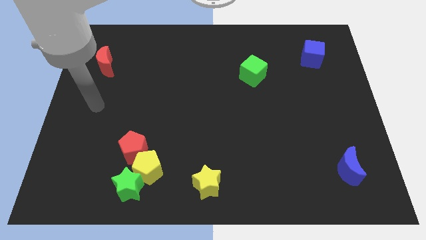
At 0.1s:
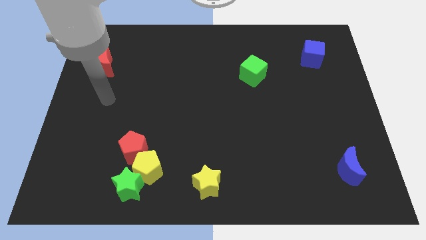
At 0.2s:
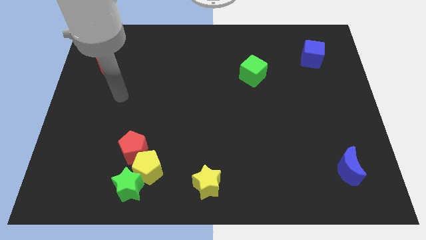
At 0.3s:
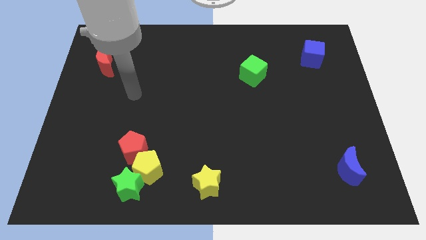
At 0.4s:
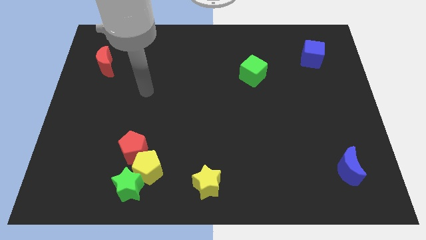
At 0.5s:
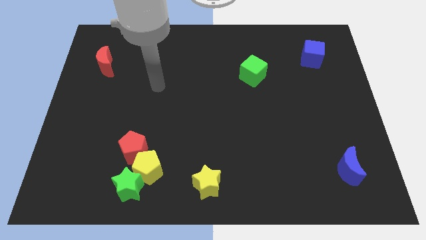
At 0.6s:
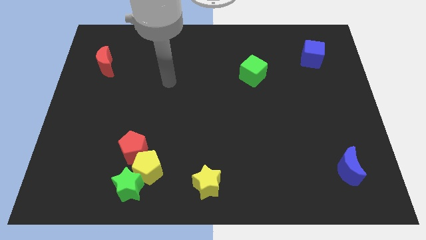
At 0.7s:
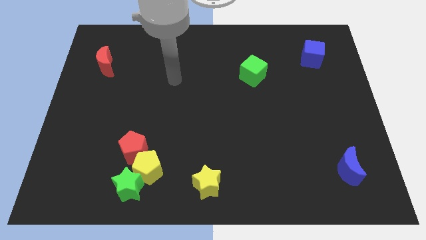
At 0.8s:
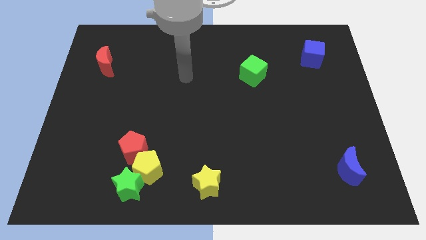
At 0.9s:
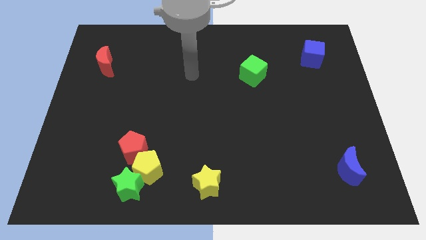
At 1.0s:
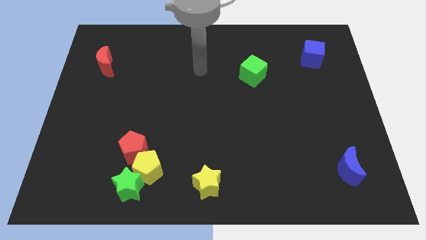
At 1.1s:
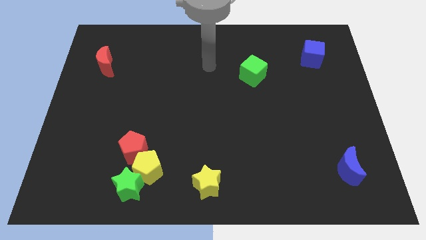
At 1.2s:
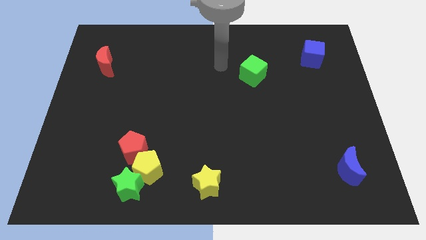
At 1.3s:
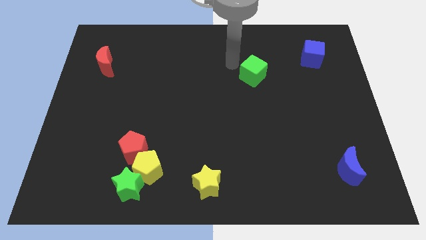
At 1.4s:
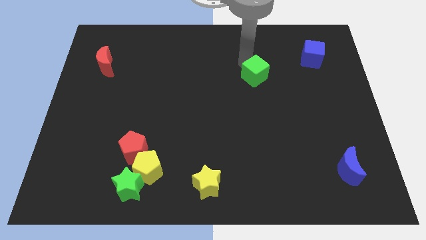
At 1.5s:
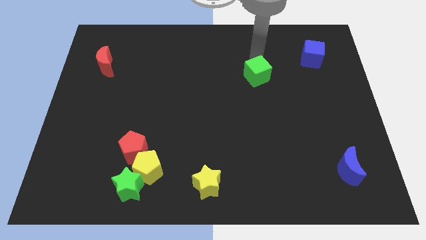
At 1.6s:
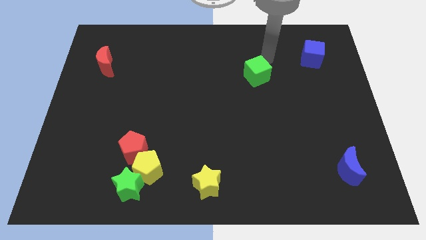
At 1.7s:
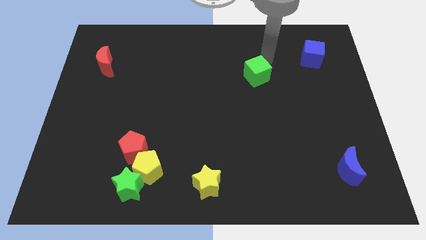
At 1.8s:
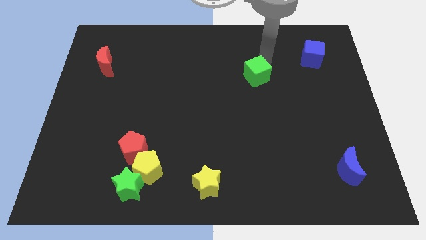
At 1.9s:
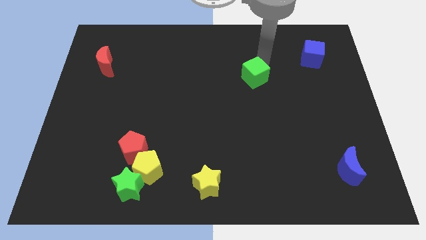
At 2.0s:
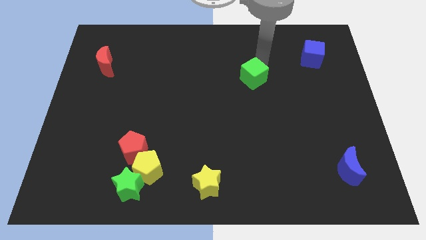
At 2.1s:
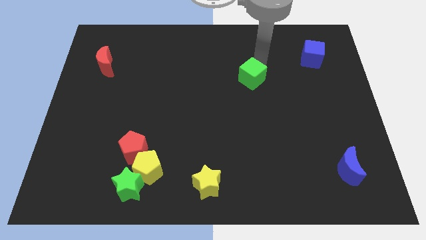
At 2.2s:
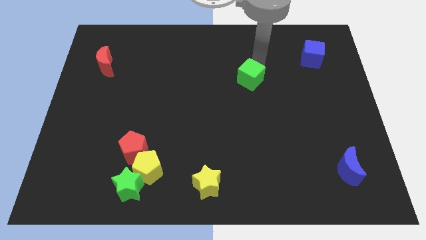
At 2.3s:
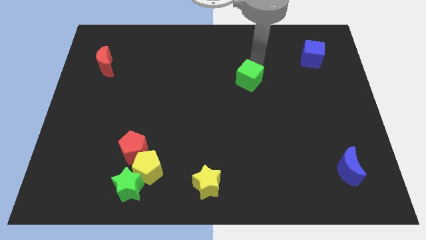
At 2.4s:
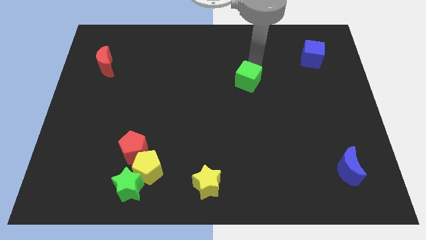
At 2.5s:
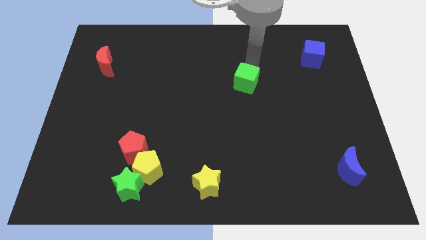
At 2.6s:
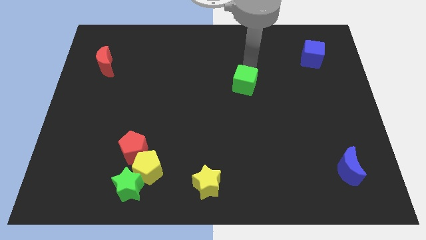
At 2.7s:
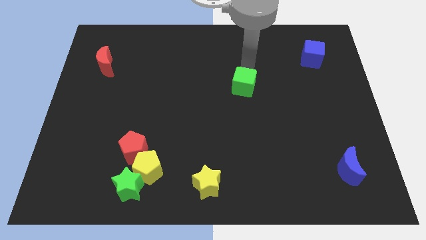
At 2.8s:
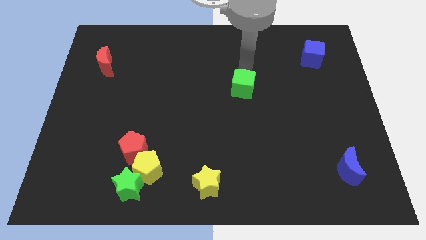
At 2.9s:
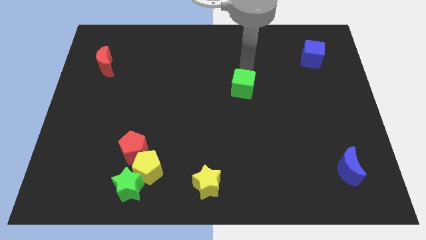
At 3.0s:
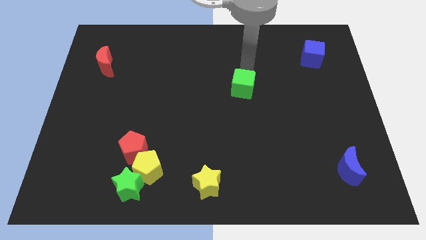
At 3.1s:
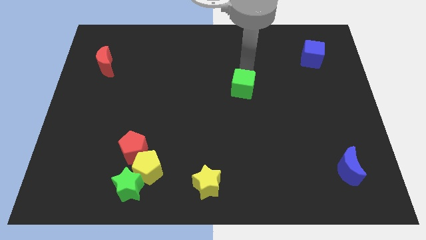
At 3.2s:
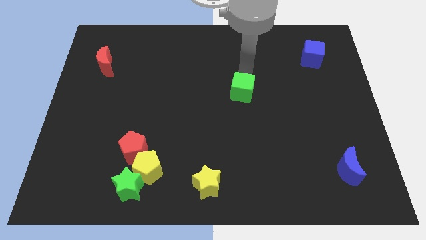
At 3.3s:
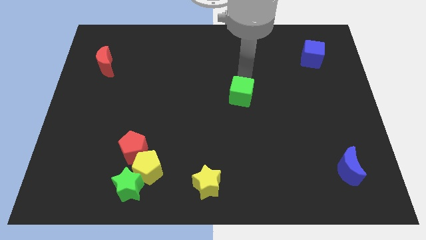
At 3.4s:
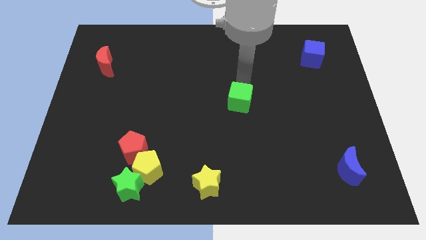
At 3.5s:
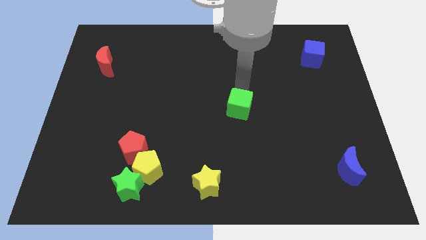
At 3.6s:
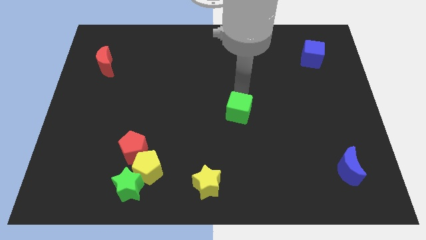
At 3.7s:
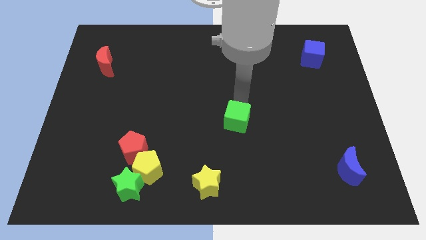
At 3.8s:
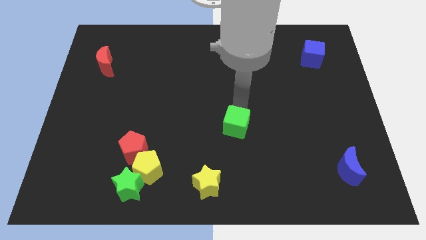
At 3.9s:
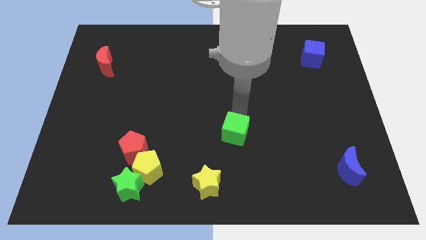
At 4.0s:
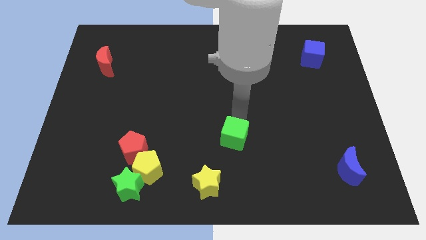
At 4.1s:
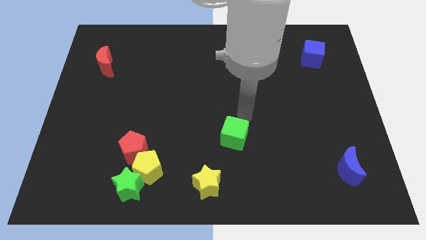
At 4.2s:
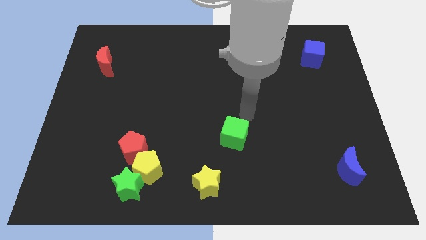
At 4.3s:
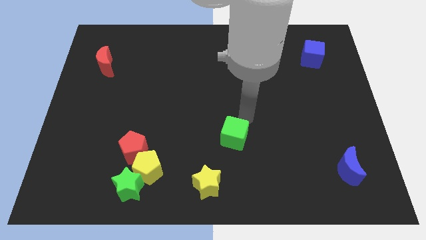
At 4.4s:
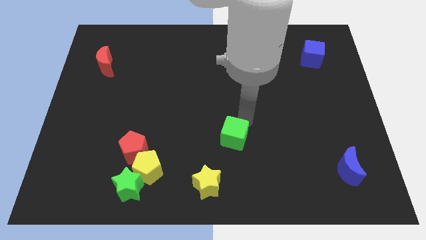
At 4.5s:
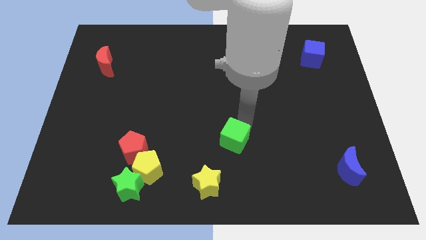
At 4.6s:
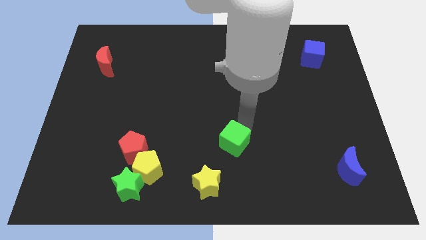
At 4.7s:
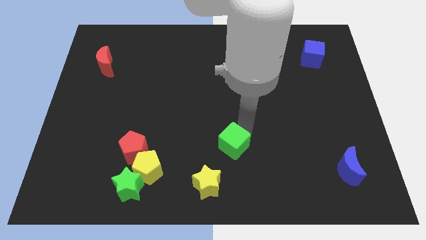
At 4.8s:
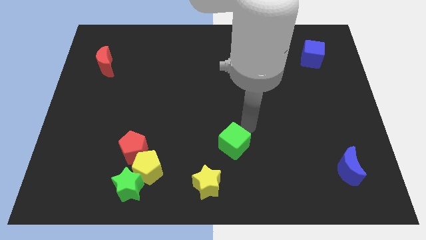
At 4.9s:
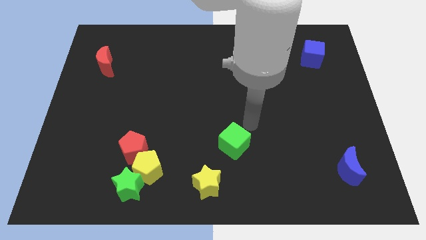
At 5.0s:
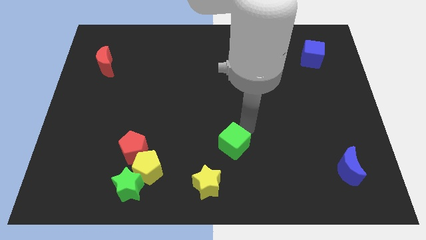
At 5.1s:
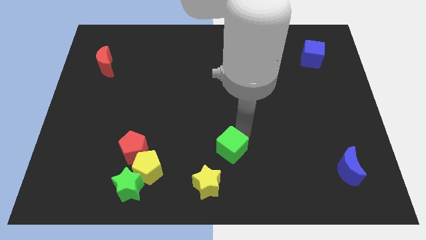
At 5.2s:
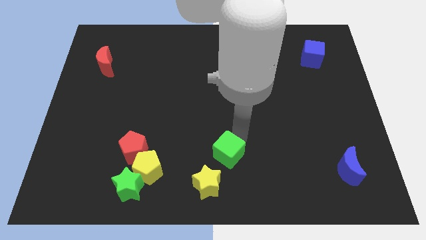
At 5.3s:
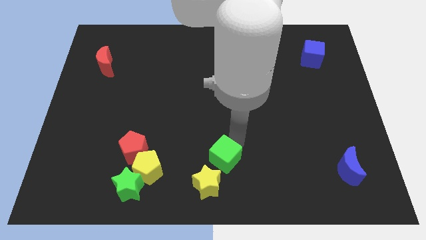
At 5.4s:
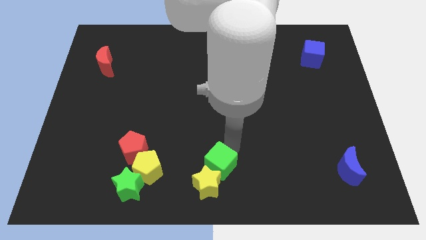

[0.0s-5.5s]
push the green cube to the yellow star

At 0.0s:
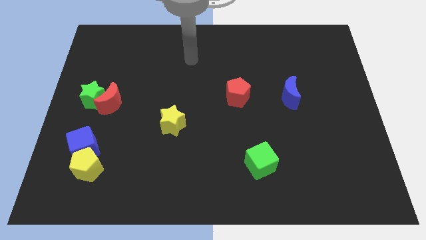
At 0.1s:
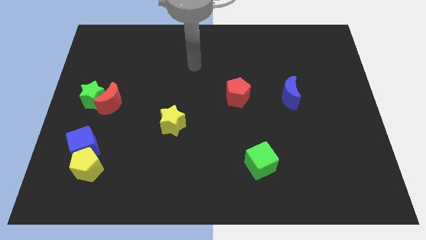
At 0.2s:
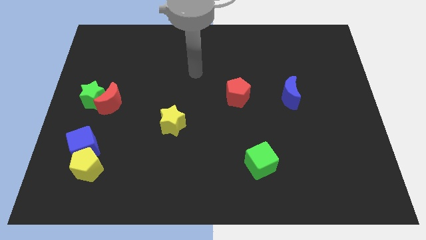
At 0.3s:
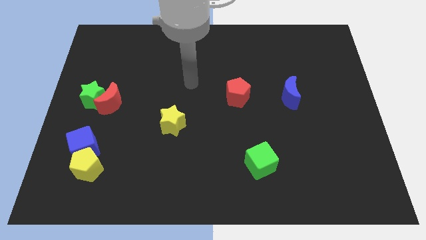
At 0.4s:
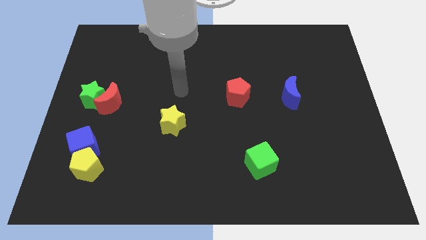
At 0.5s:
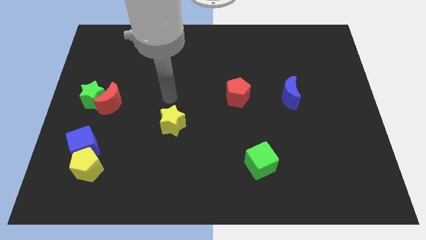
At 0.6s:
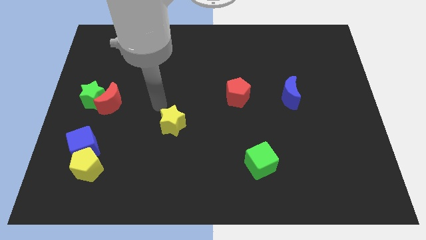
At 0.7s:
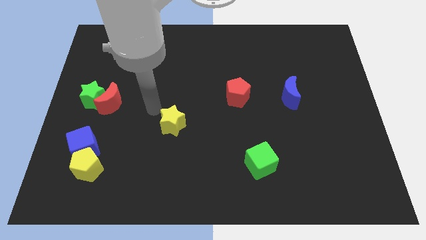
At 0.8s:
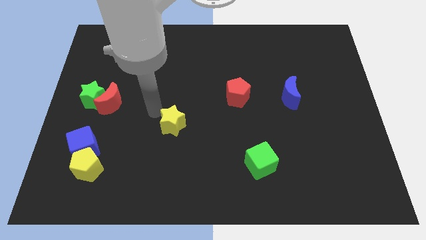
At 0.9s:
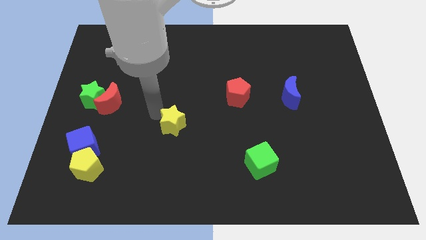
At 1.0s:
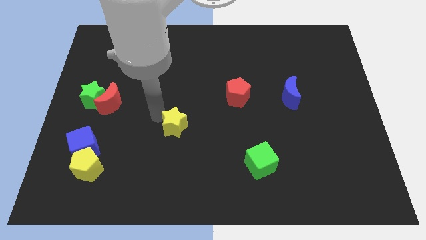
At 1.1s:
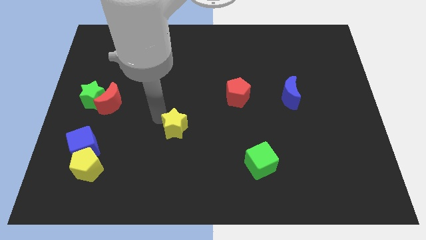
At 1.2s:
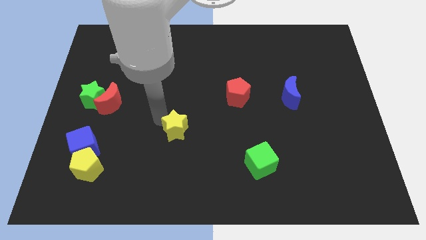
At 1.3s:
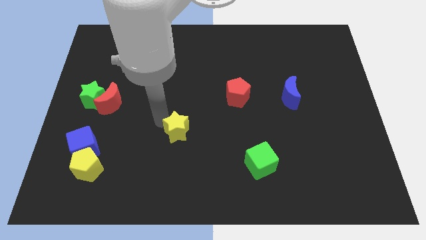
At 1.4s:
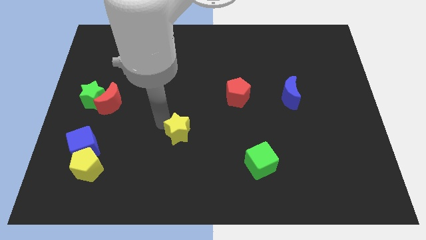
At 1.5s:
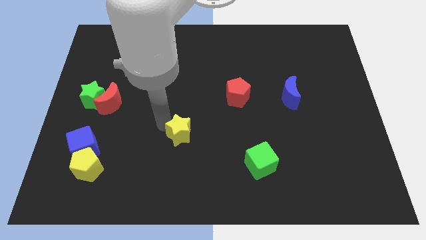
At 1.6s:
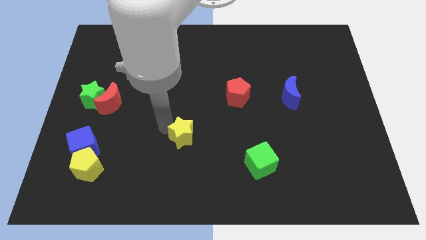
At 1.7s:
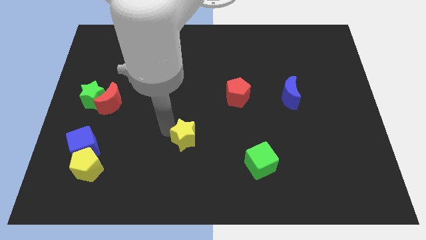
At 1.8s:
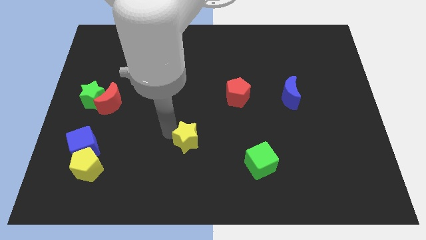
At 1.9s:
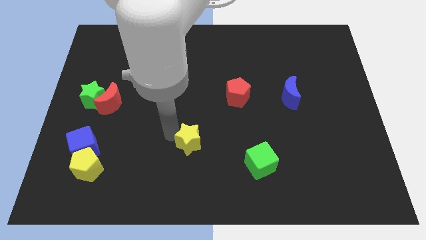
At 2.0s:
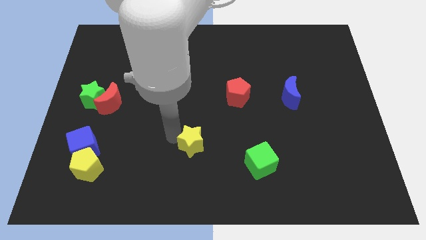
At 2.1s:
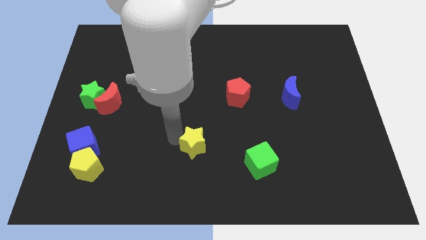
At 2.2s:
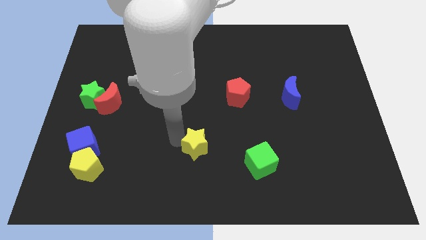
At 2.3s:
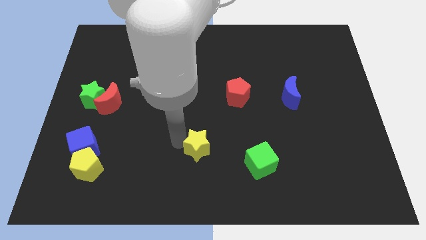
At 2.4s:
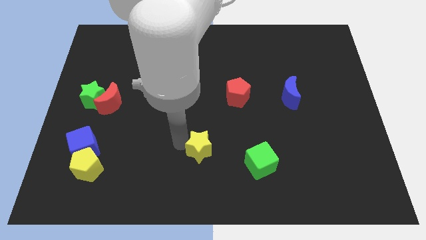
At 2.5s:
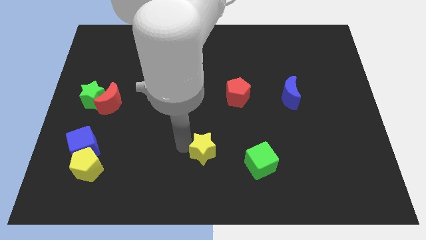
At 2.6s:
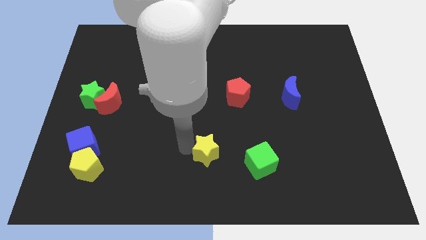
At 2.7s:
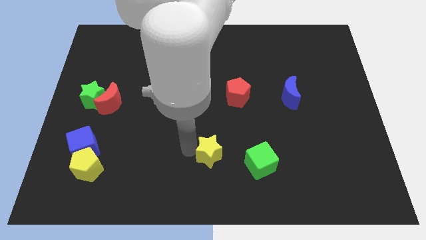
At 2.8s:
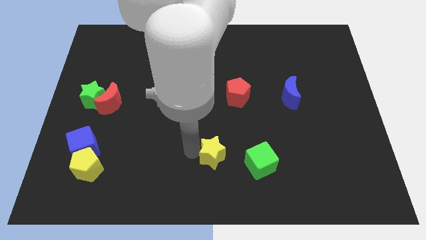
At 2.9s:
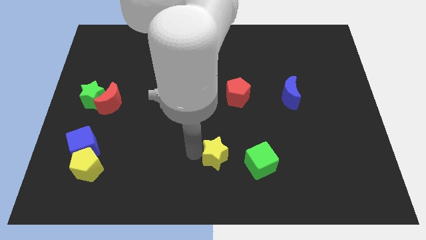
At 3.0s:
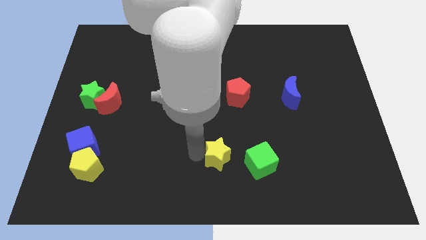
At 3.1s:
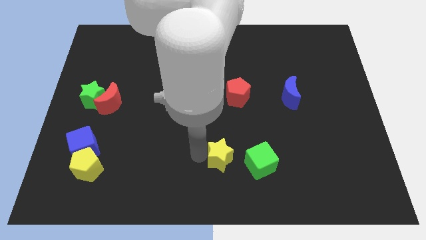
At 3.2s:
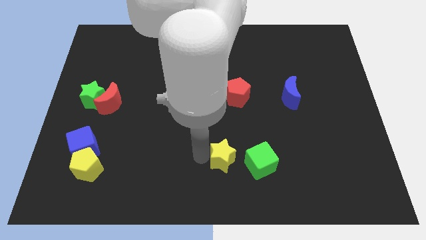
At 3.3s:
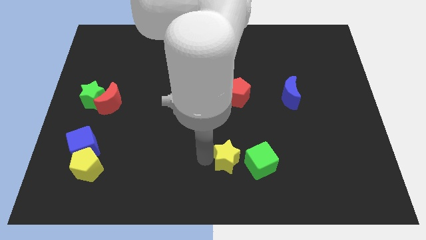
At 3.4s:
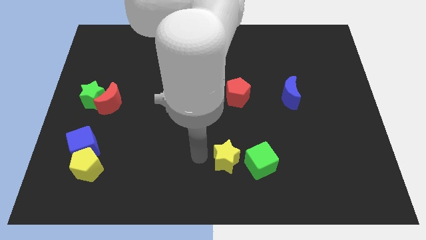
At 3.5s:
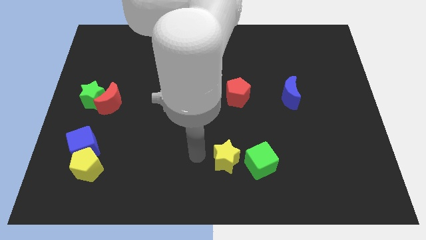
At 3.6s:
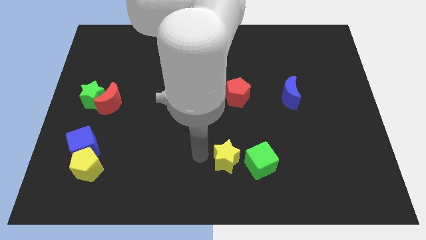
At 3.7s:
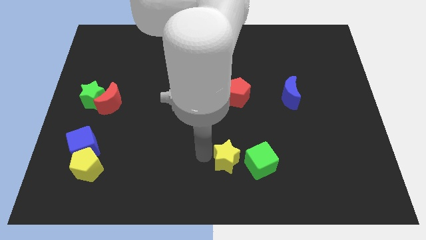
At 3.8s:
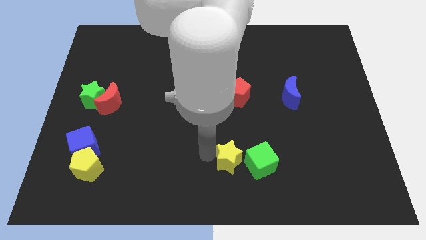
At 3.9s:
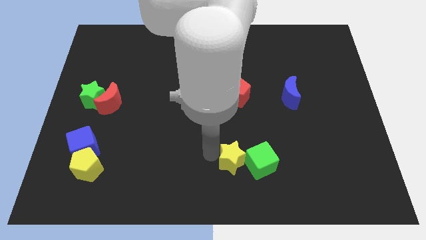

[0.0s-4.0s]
slide the yellow star towards the green cube
